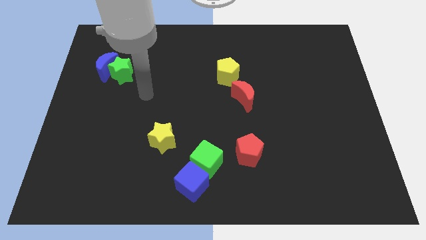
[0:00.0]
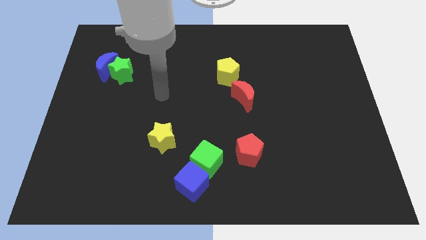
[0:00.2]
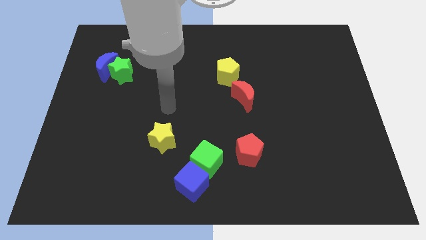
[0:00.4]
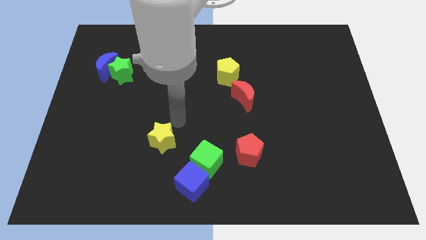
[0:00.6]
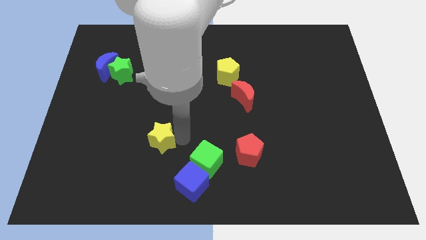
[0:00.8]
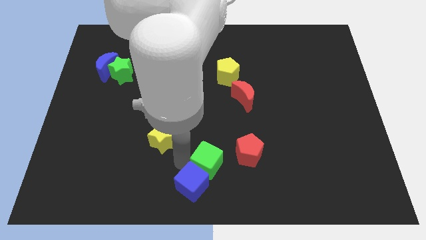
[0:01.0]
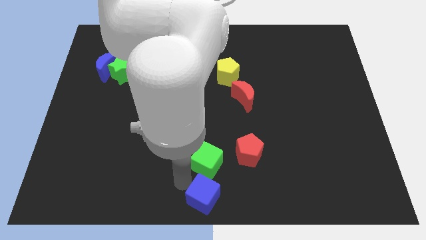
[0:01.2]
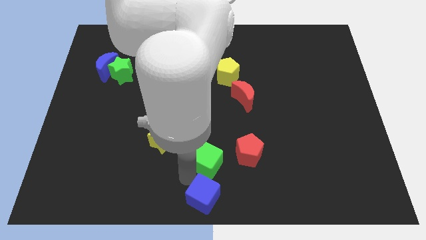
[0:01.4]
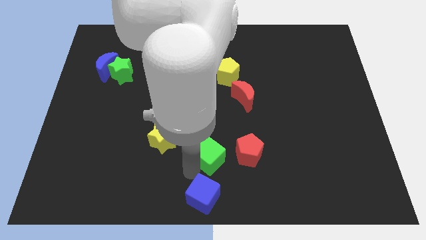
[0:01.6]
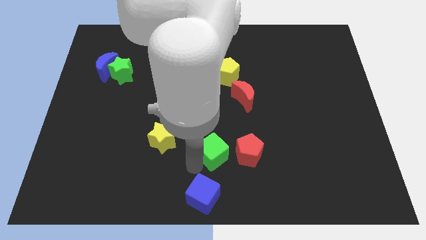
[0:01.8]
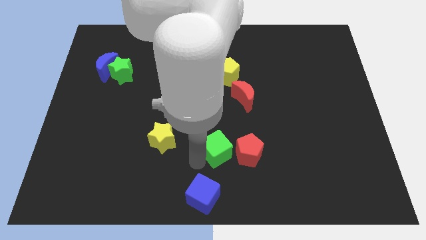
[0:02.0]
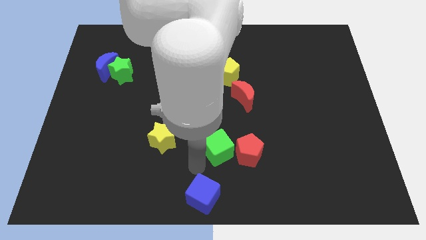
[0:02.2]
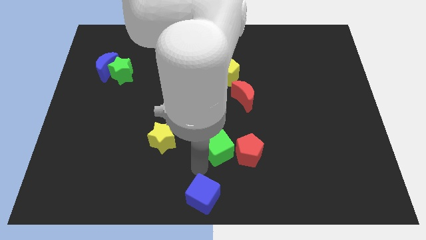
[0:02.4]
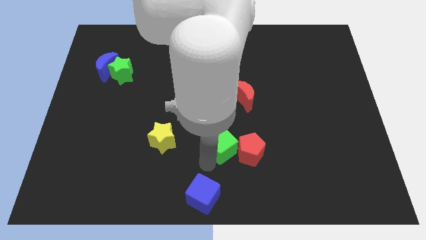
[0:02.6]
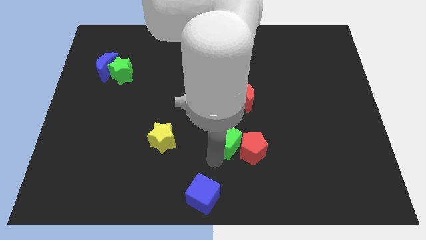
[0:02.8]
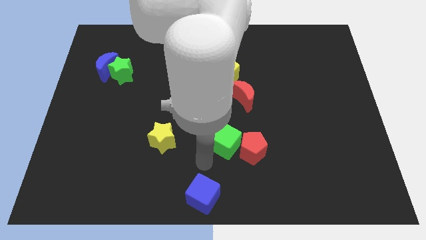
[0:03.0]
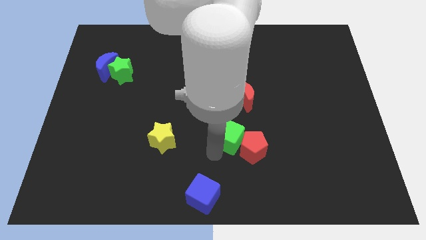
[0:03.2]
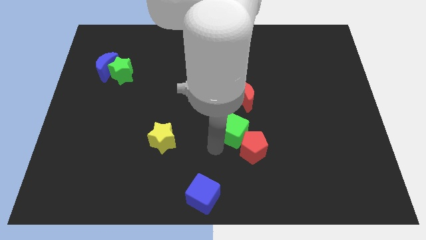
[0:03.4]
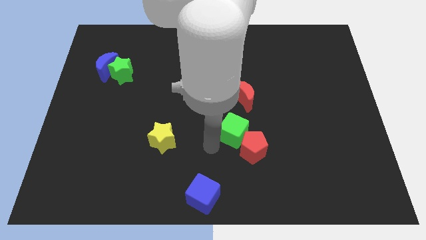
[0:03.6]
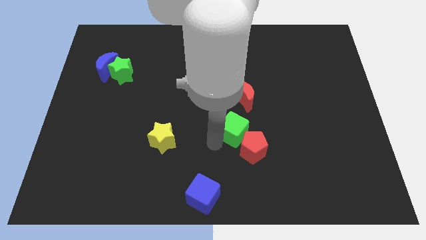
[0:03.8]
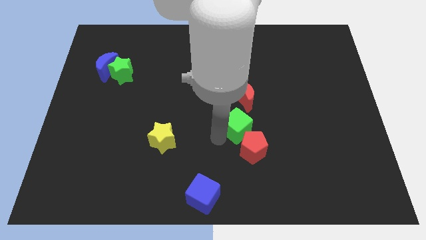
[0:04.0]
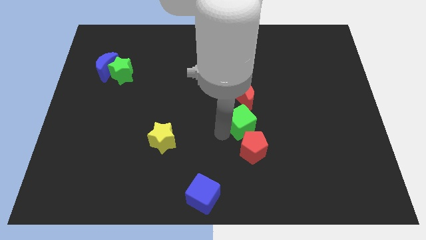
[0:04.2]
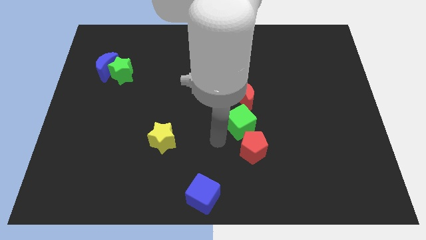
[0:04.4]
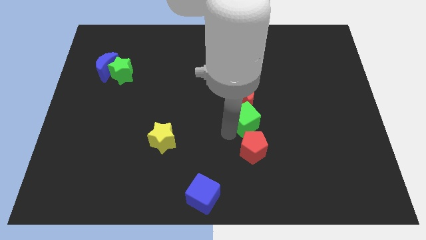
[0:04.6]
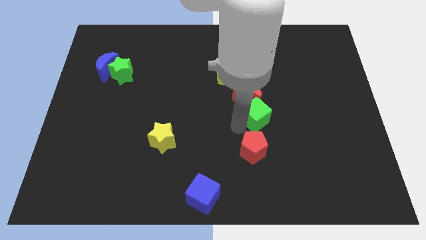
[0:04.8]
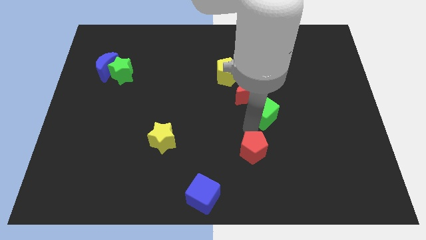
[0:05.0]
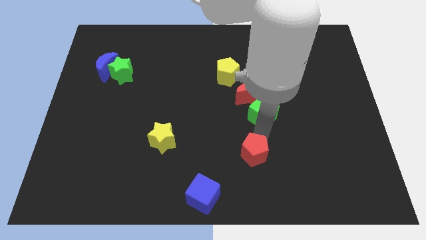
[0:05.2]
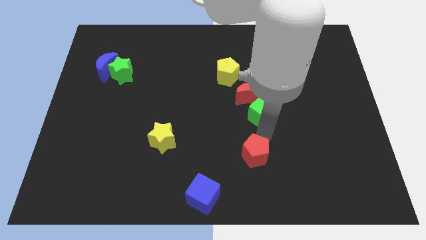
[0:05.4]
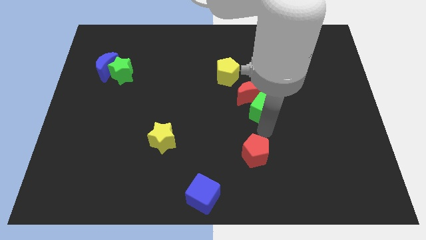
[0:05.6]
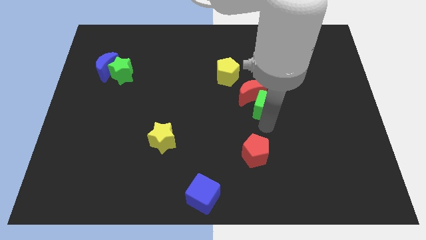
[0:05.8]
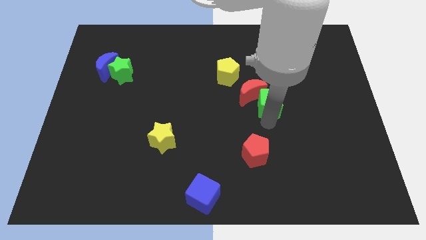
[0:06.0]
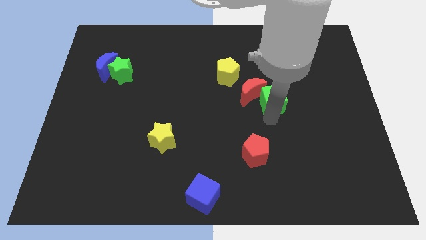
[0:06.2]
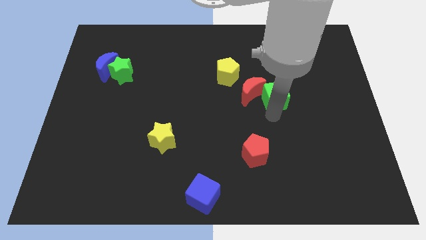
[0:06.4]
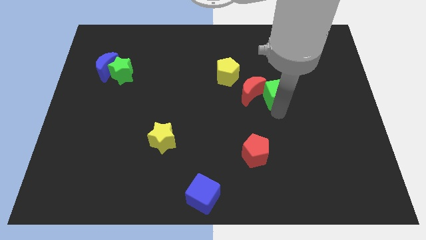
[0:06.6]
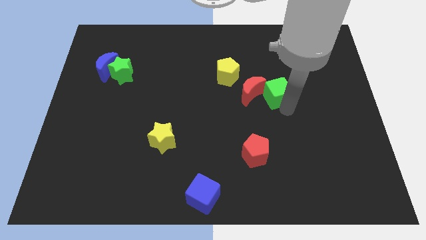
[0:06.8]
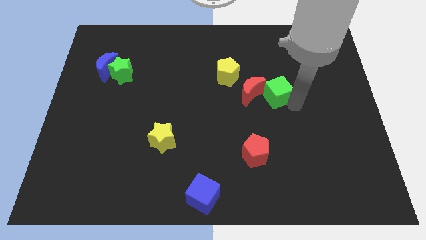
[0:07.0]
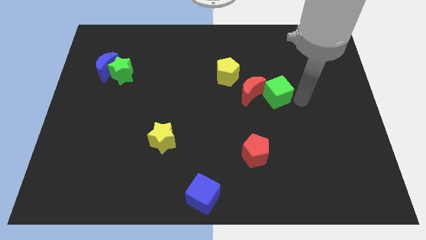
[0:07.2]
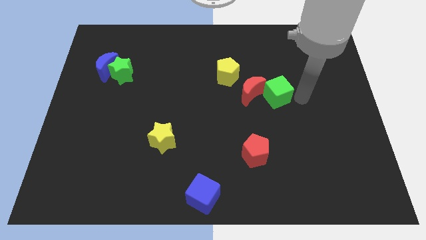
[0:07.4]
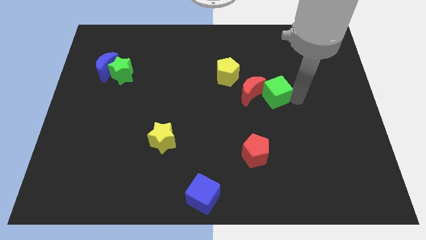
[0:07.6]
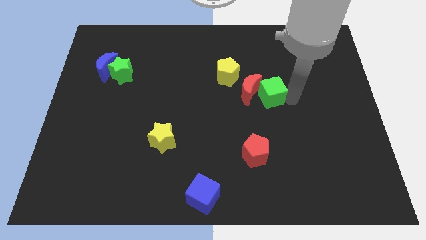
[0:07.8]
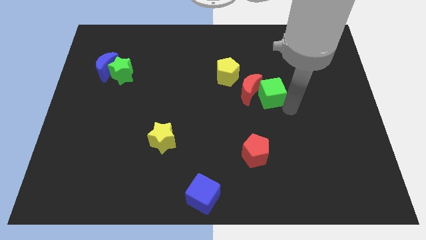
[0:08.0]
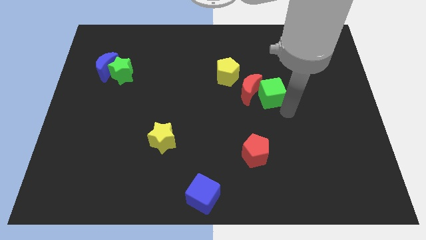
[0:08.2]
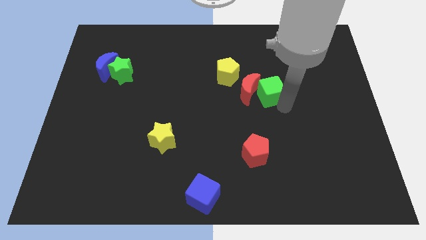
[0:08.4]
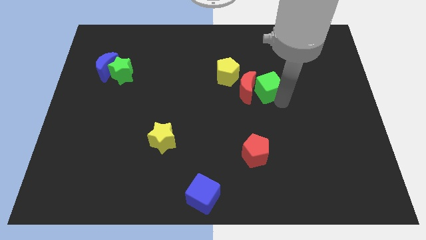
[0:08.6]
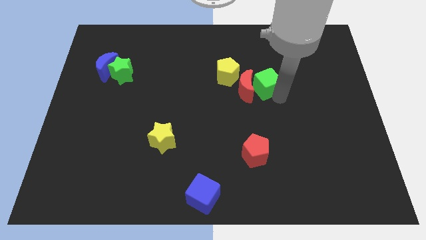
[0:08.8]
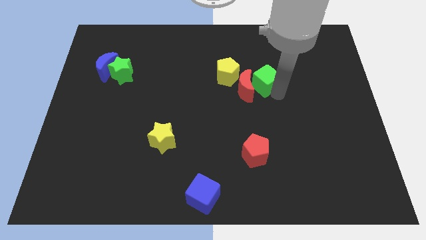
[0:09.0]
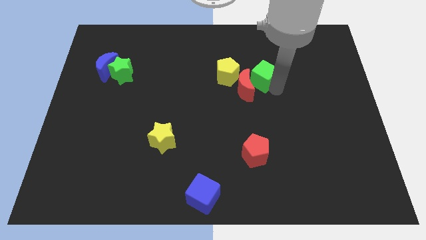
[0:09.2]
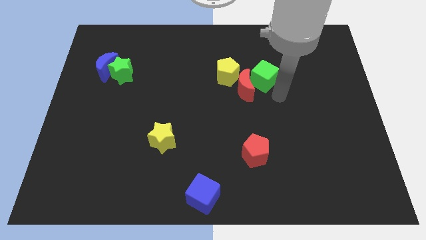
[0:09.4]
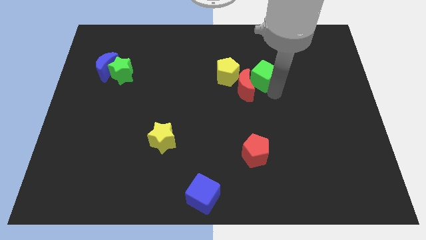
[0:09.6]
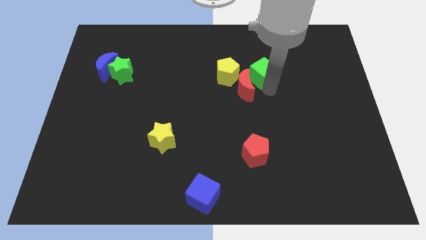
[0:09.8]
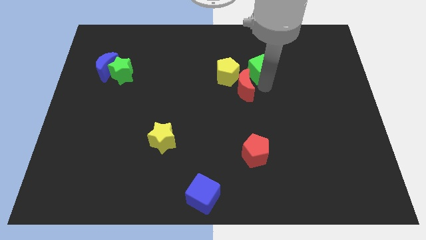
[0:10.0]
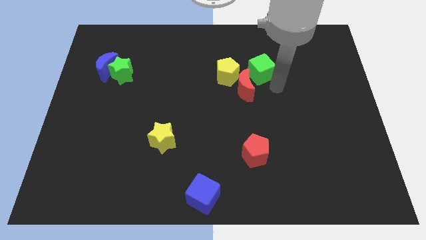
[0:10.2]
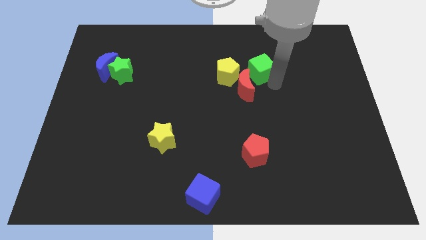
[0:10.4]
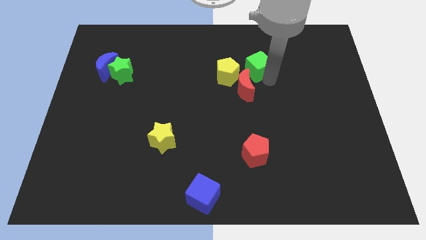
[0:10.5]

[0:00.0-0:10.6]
slide the green cube to the top right of the yellow pentagon

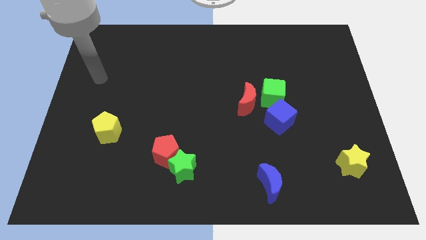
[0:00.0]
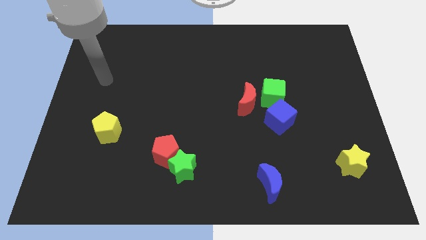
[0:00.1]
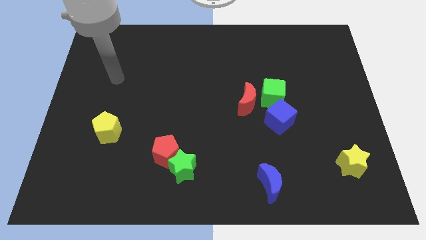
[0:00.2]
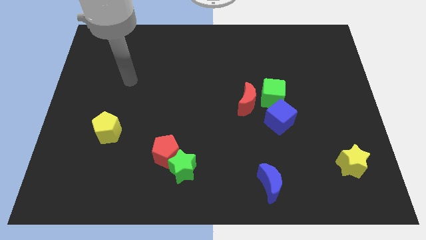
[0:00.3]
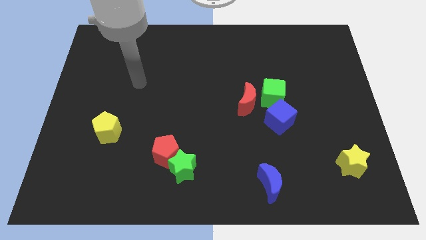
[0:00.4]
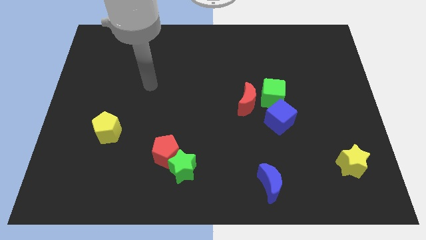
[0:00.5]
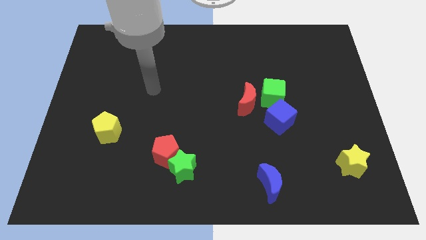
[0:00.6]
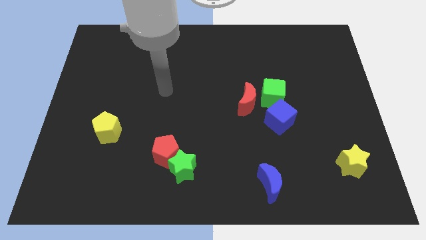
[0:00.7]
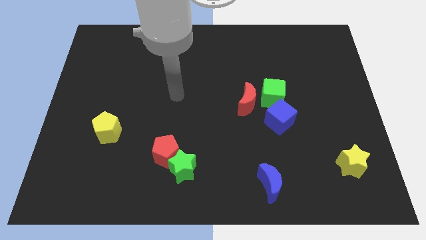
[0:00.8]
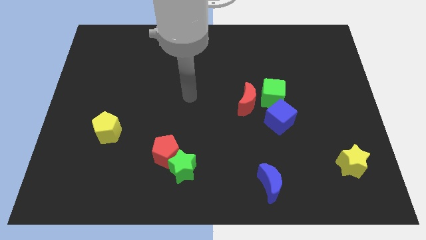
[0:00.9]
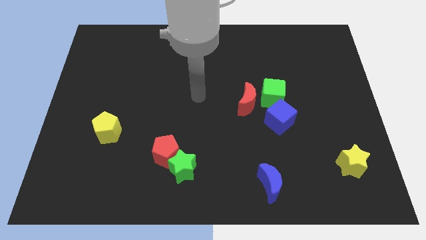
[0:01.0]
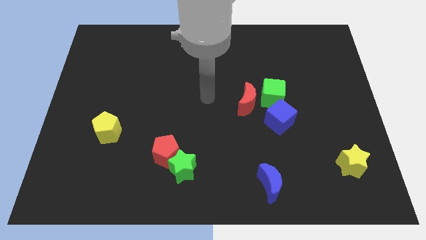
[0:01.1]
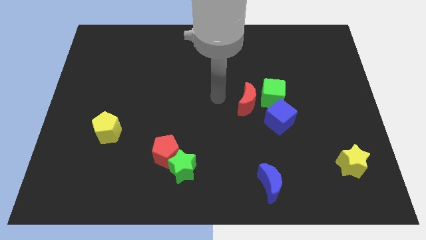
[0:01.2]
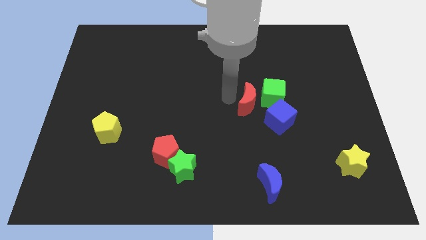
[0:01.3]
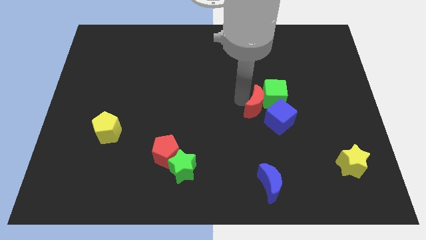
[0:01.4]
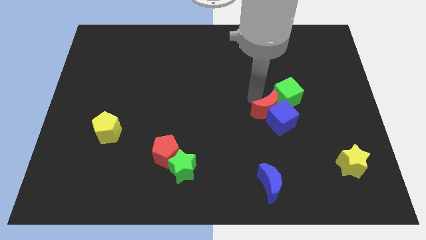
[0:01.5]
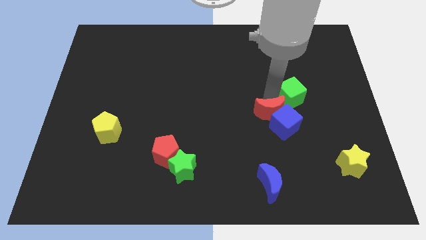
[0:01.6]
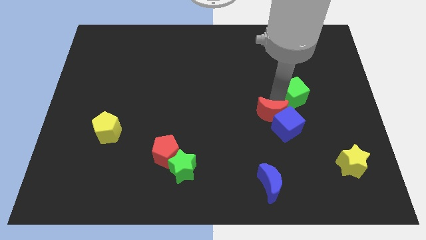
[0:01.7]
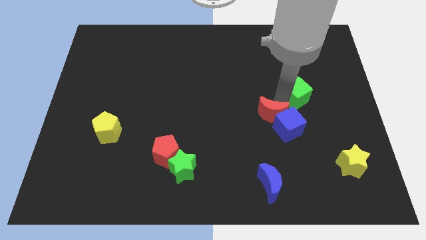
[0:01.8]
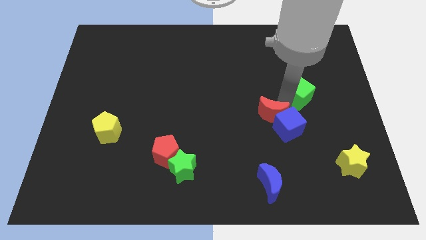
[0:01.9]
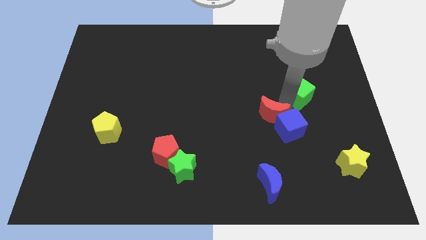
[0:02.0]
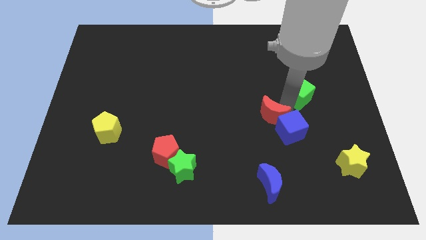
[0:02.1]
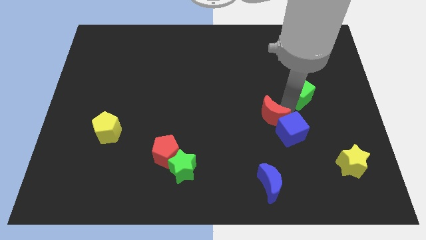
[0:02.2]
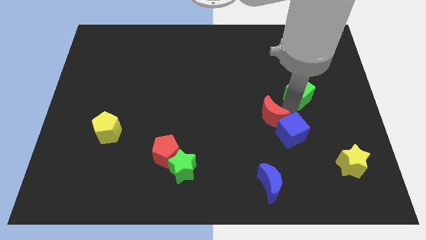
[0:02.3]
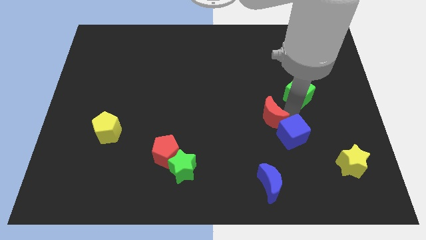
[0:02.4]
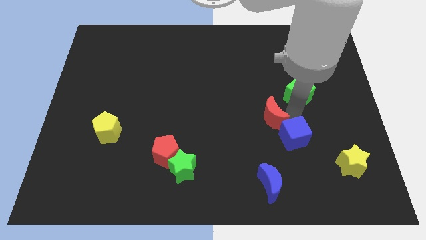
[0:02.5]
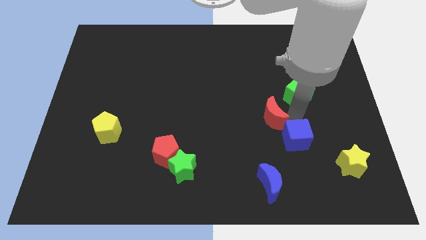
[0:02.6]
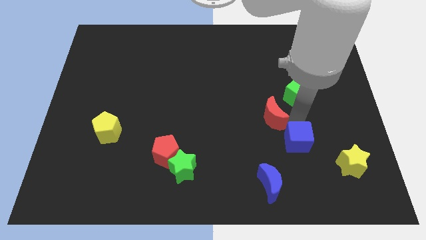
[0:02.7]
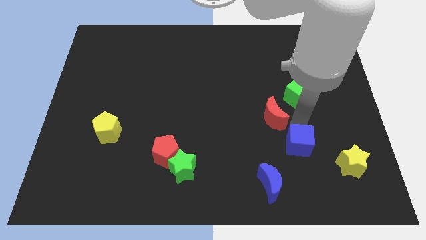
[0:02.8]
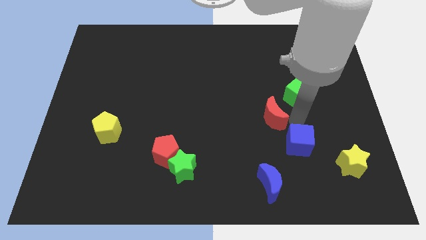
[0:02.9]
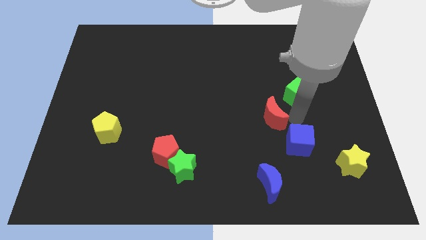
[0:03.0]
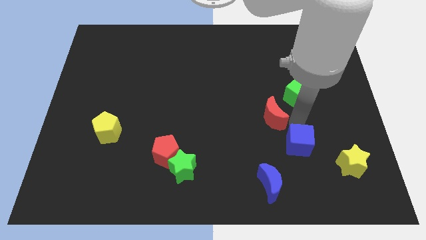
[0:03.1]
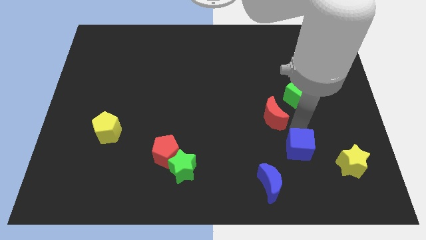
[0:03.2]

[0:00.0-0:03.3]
put the blue cube just left of the yellow star
